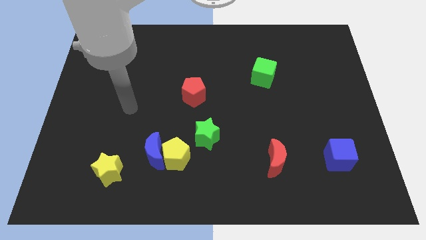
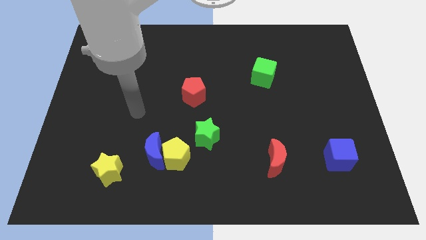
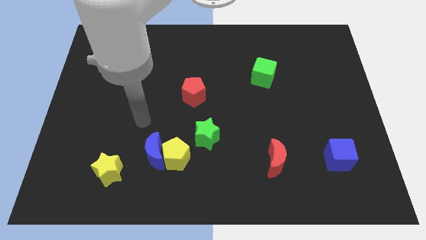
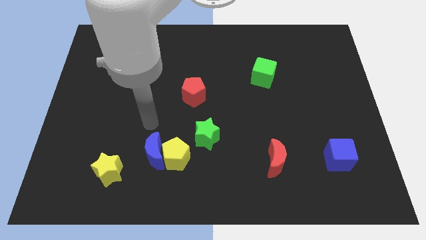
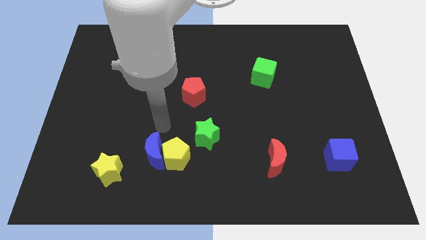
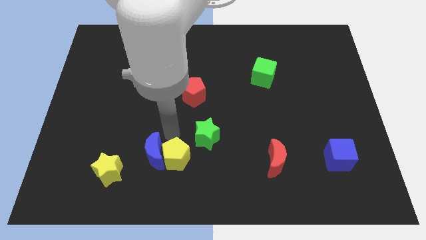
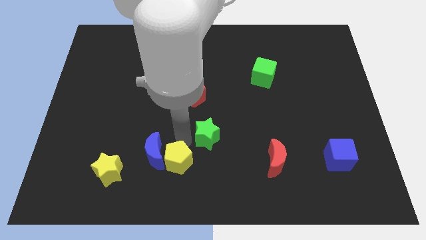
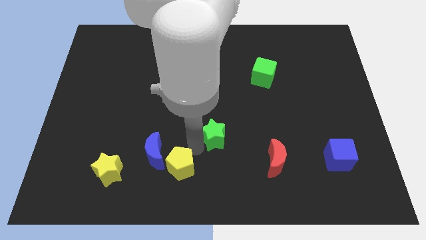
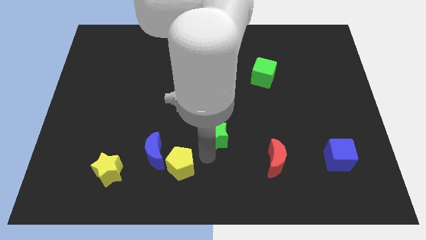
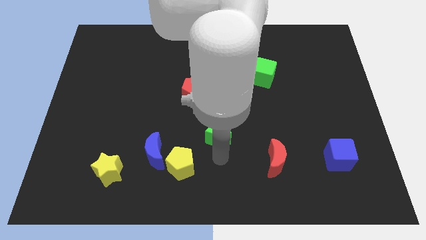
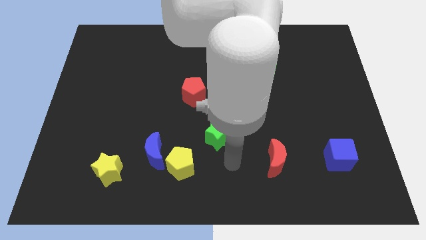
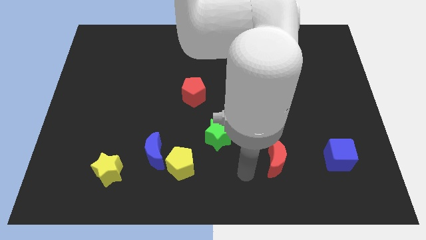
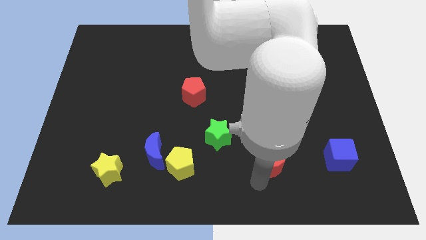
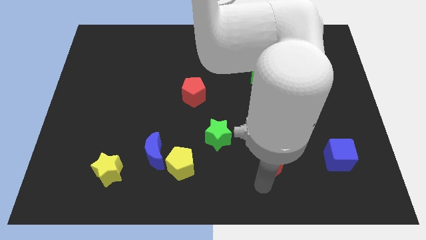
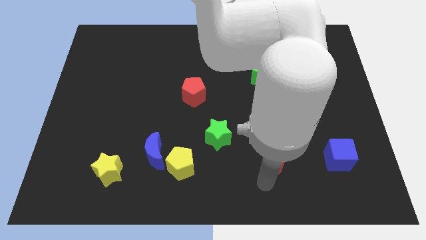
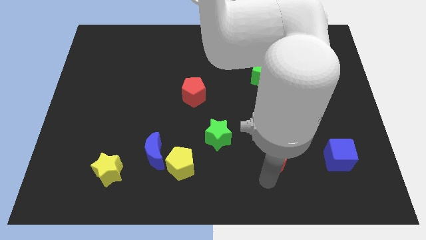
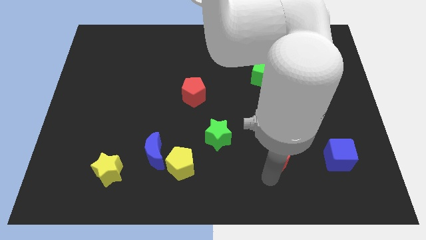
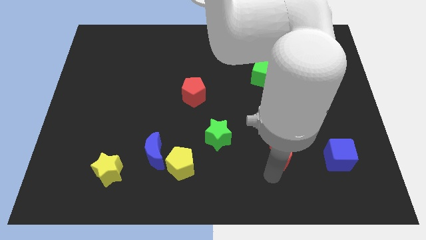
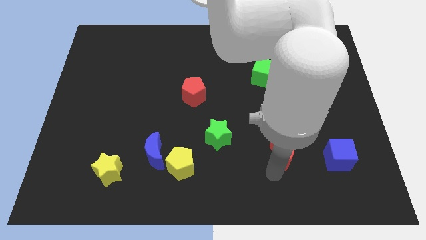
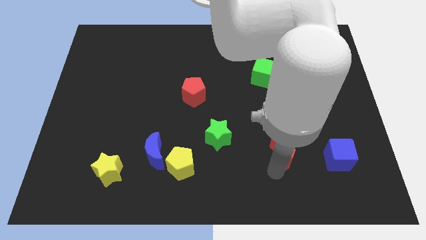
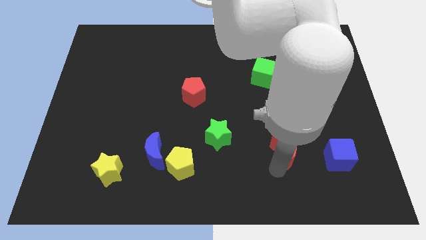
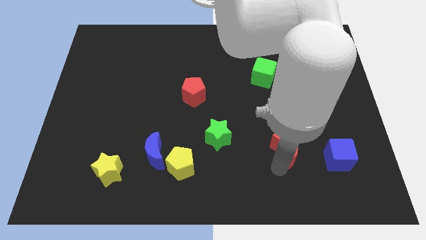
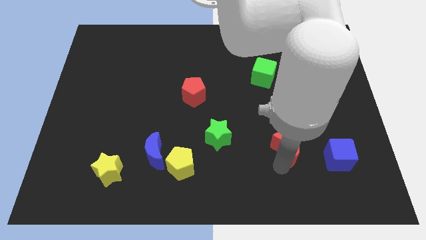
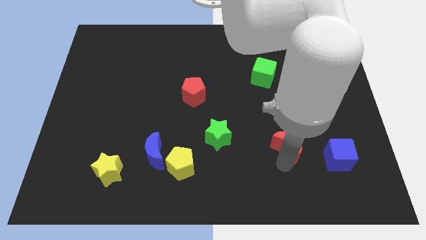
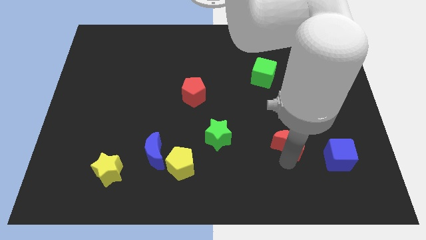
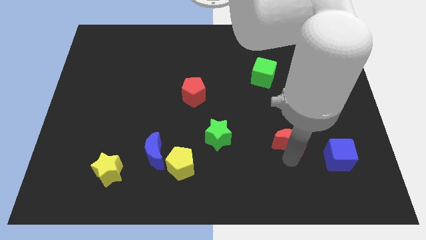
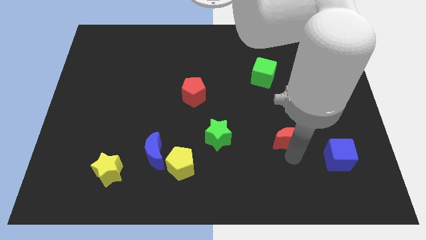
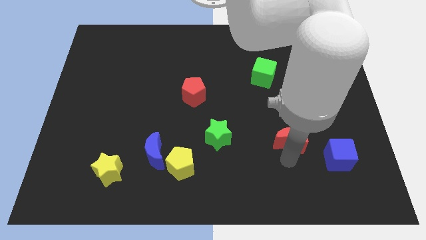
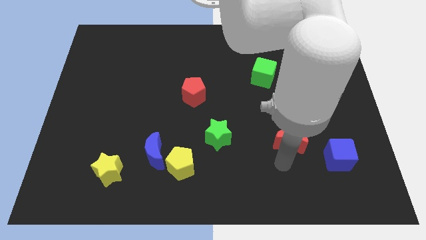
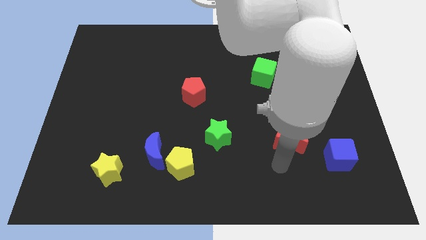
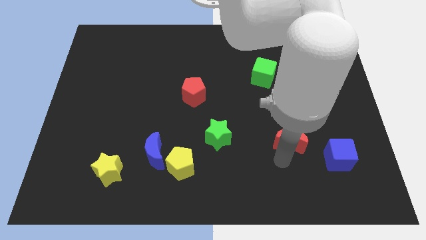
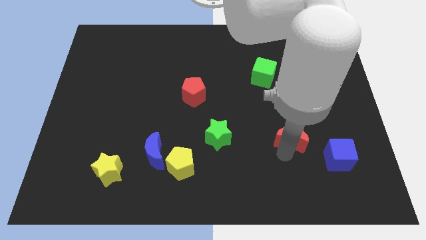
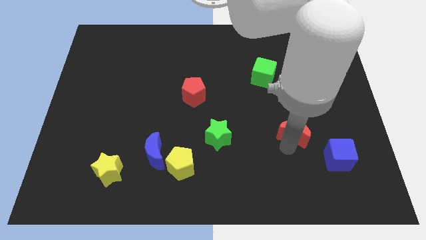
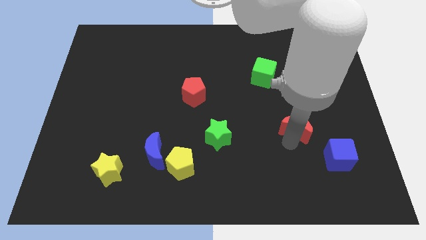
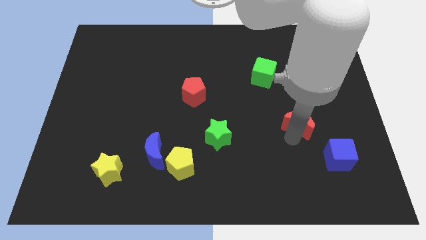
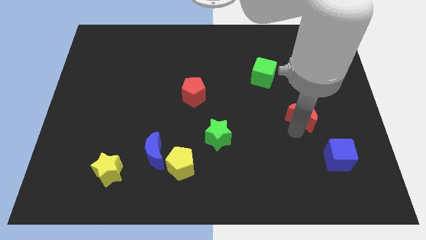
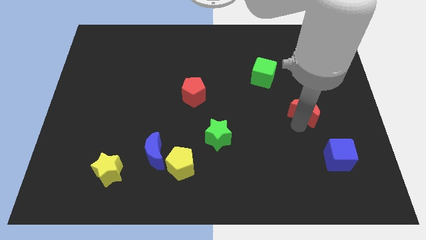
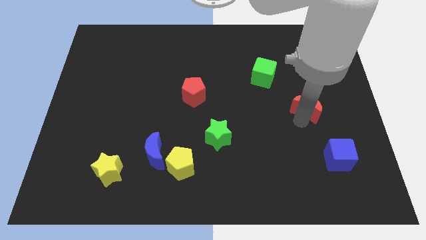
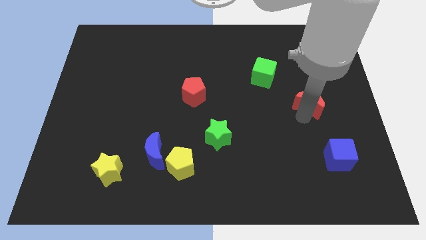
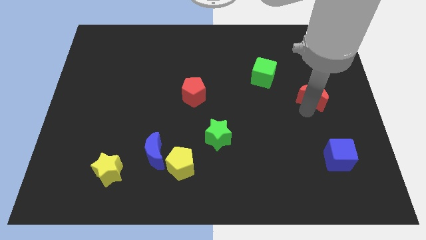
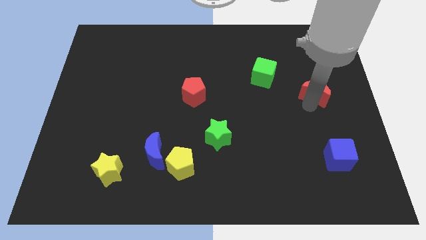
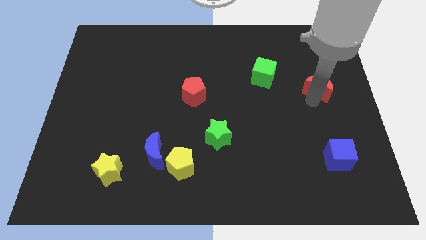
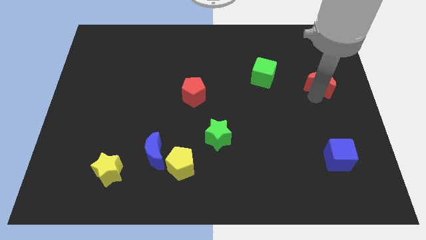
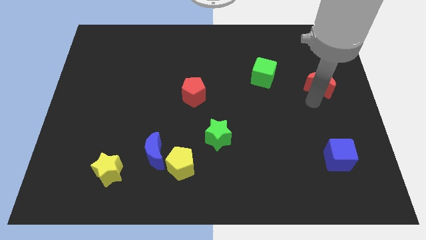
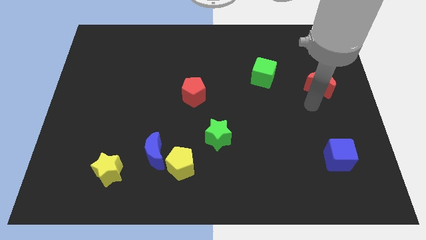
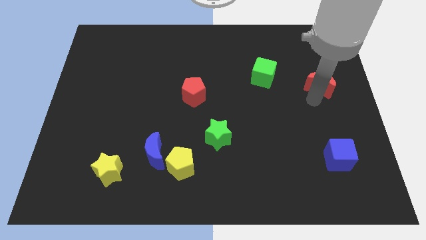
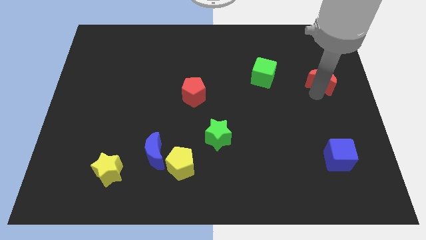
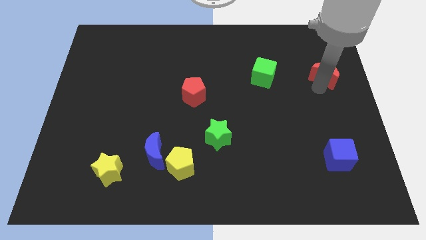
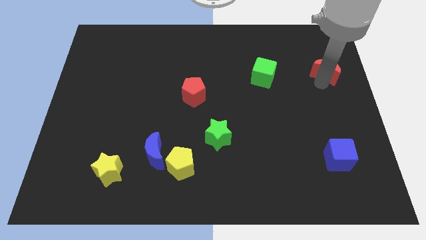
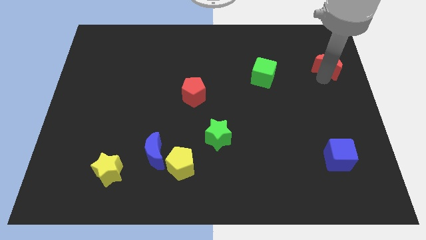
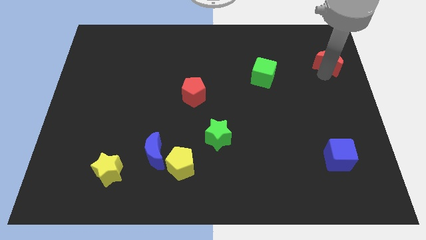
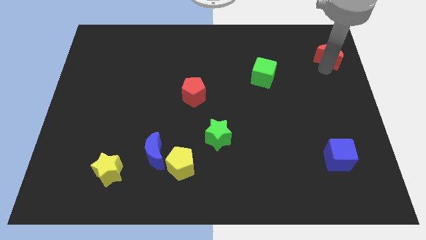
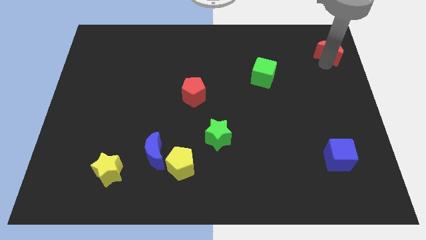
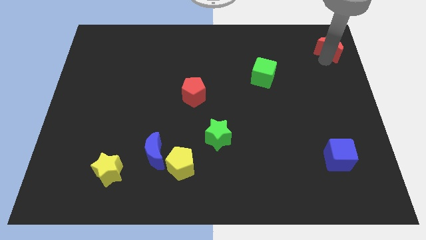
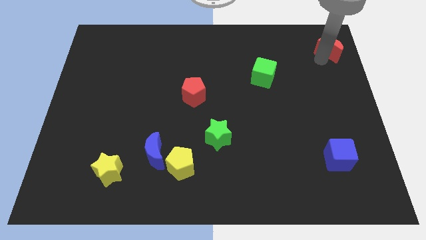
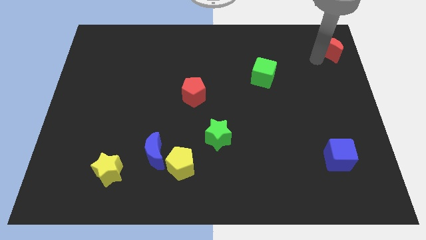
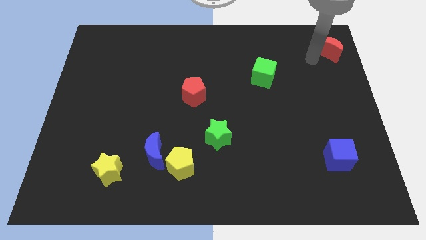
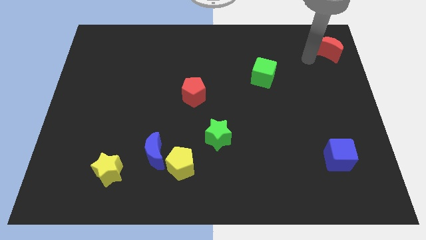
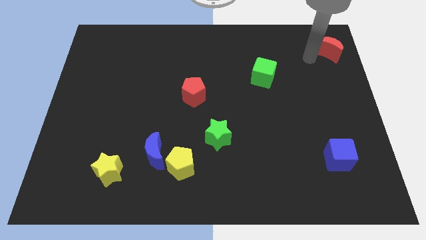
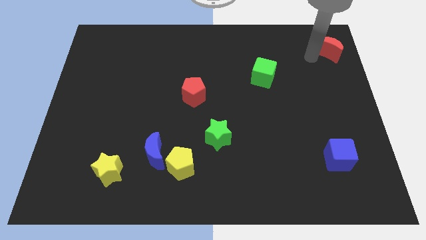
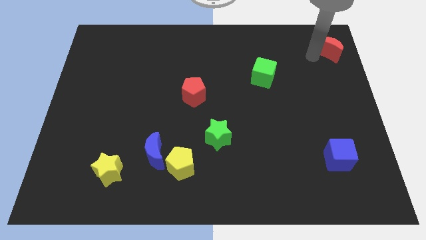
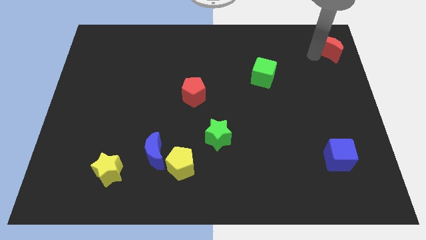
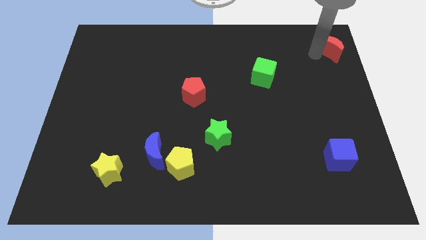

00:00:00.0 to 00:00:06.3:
slide the red moon to the upper right corner

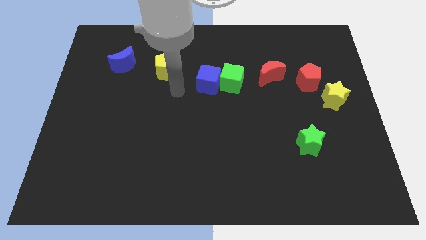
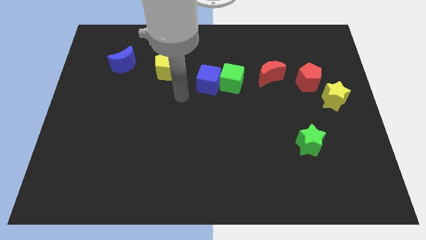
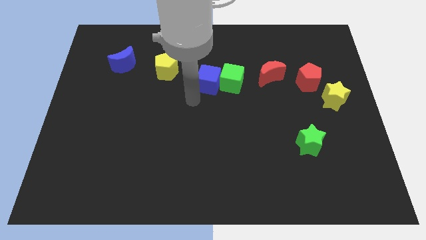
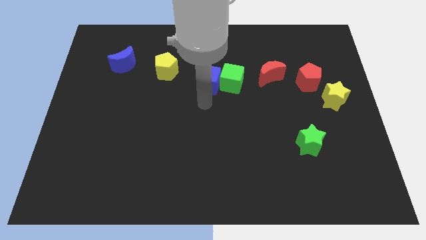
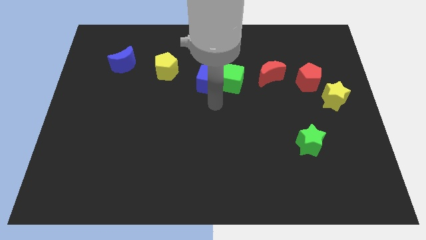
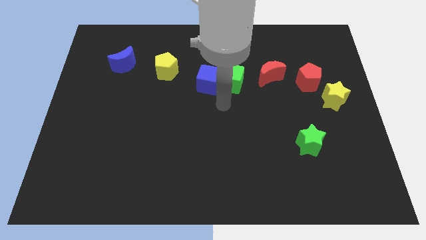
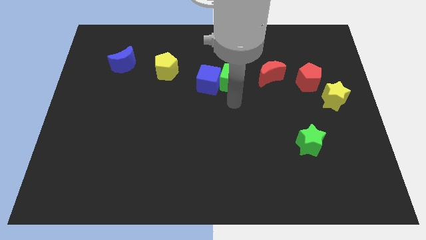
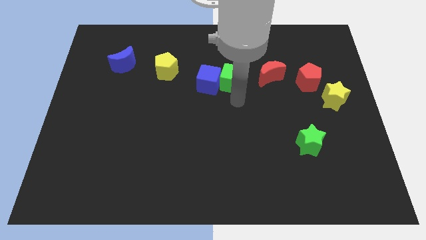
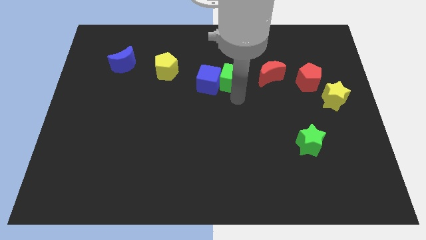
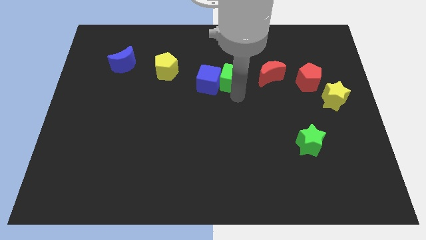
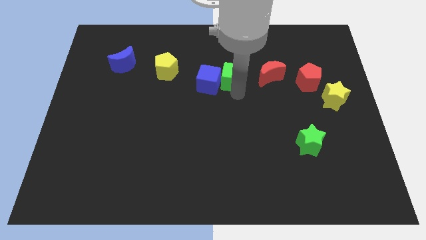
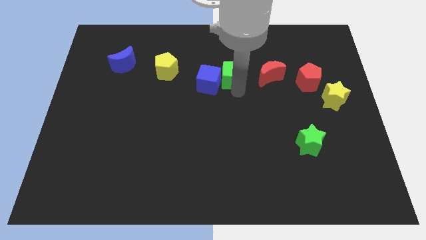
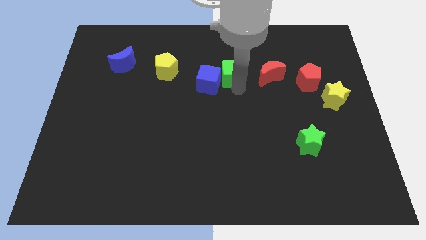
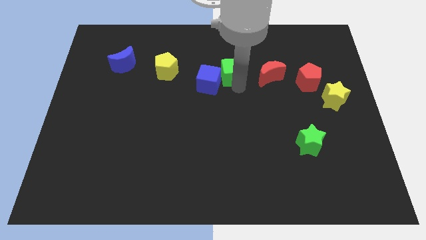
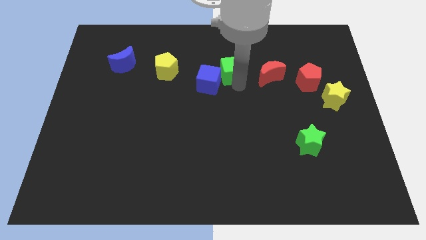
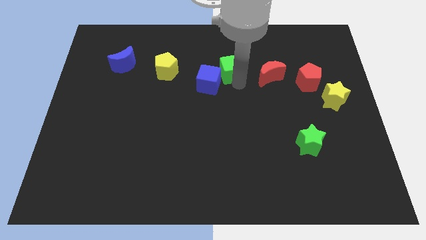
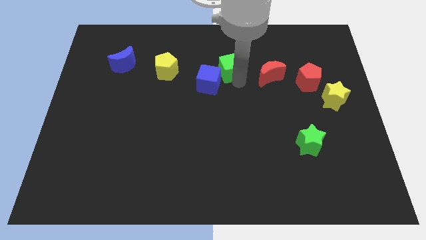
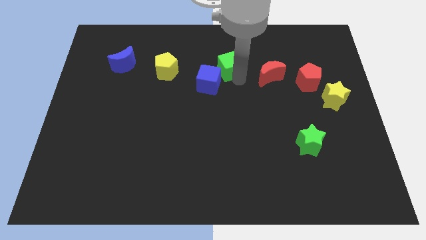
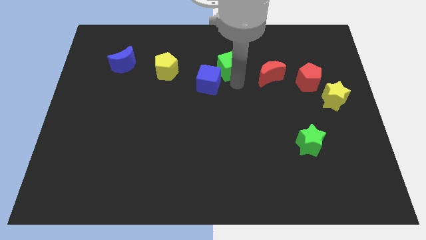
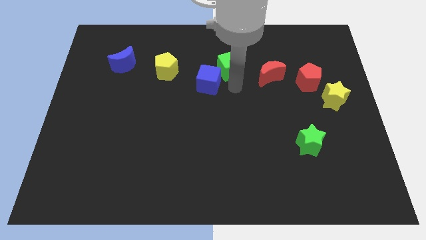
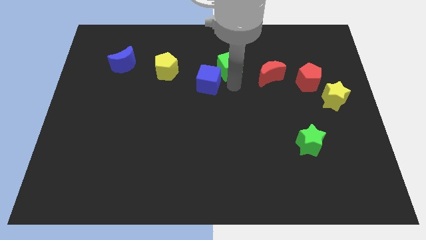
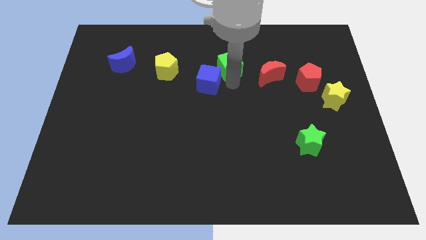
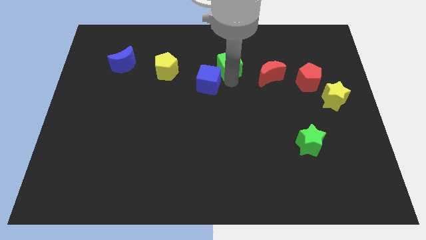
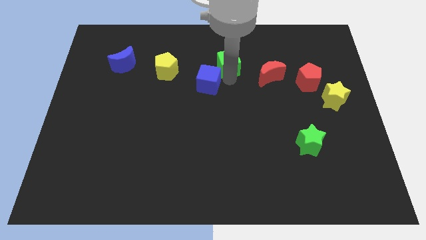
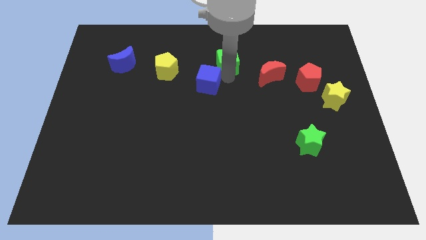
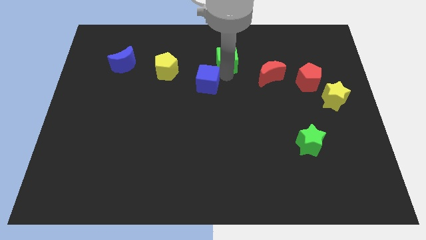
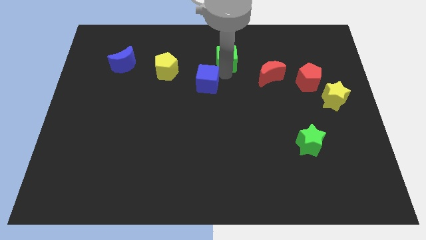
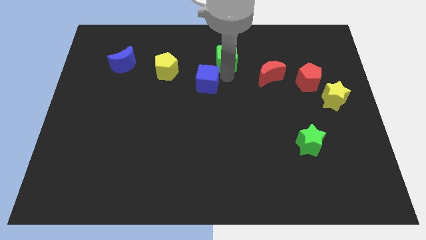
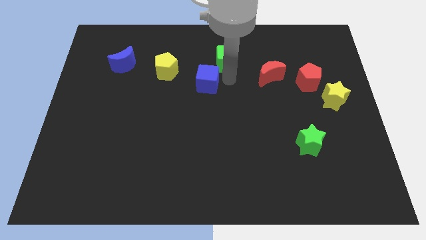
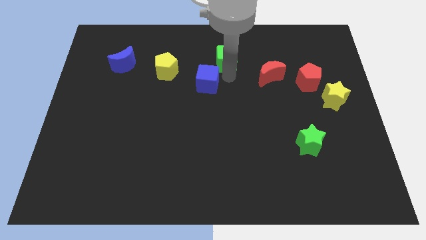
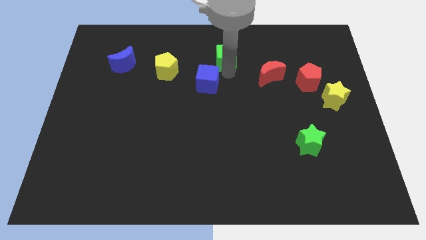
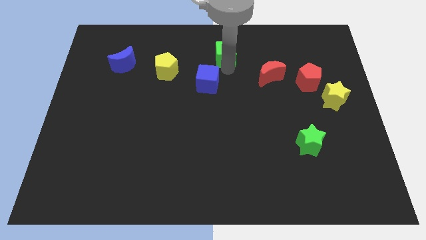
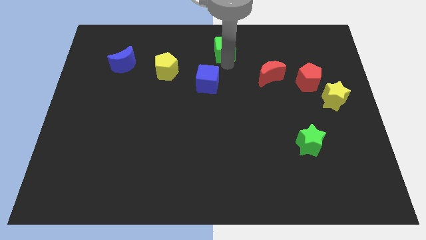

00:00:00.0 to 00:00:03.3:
put the green cube to the top side
